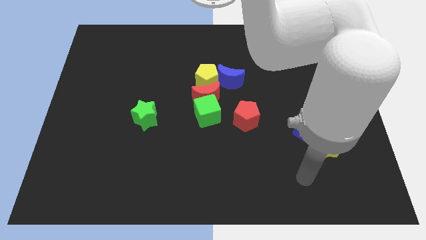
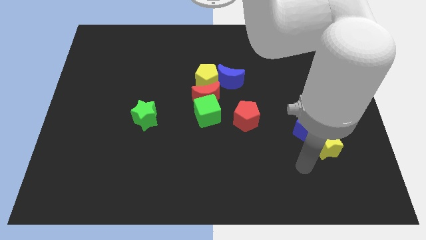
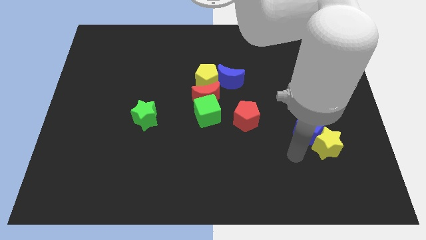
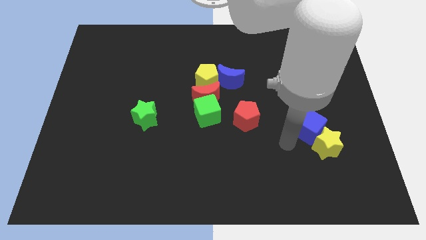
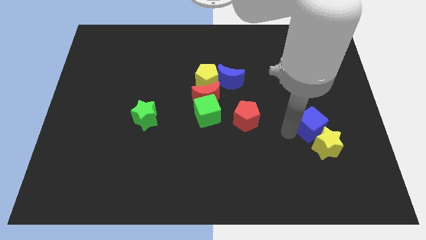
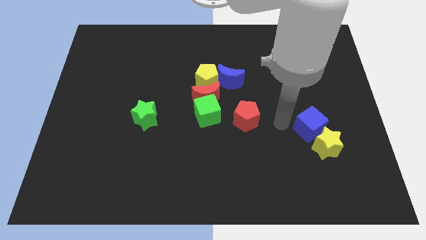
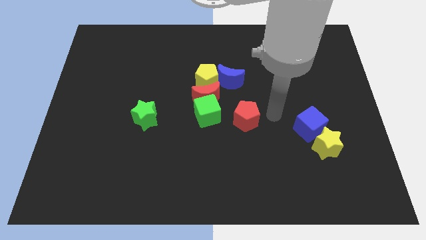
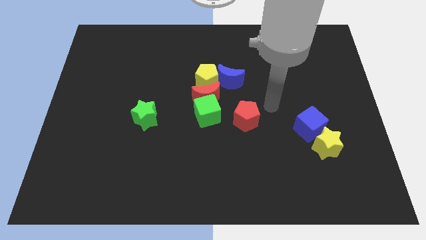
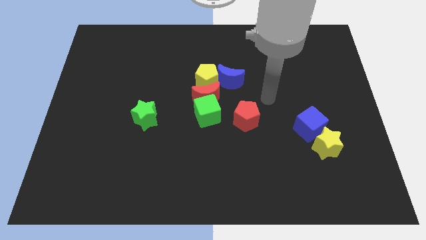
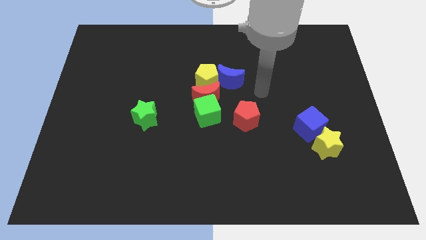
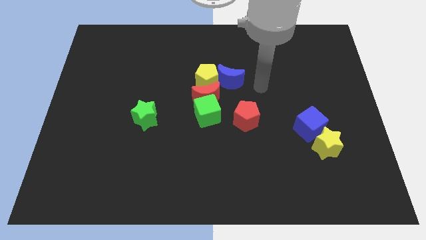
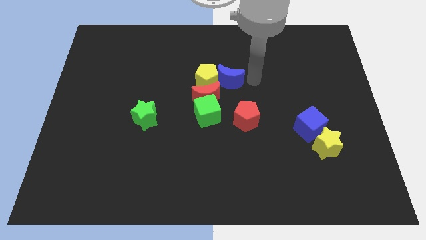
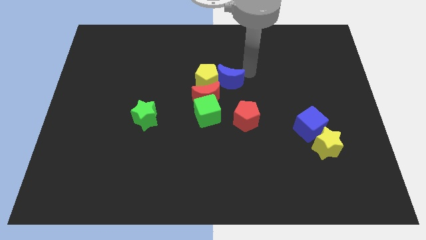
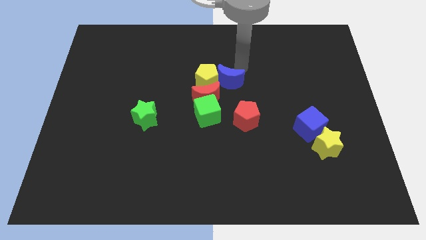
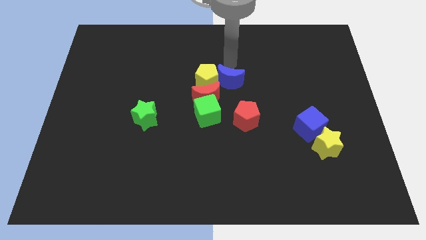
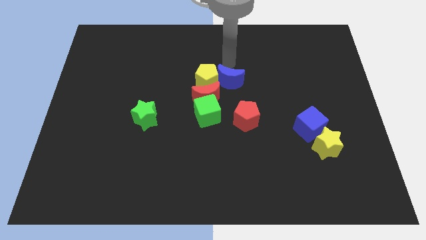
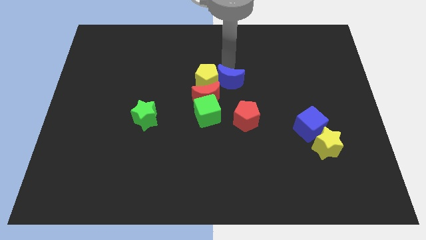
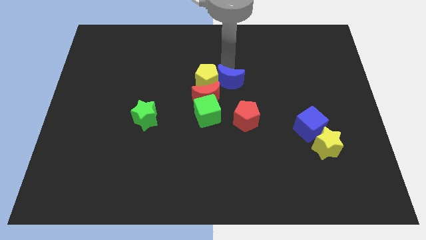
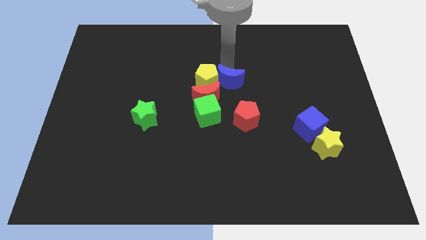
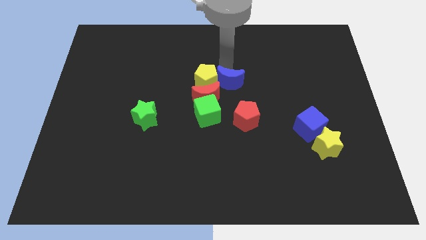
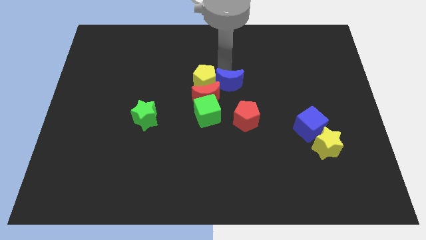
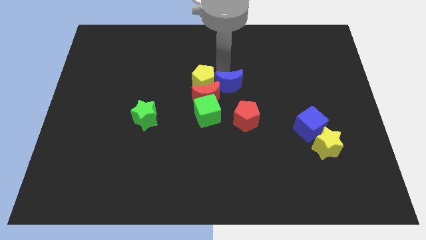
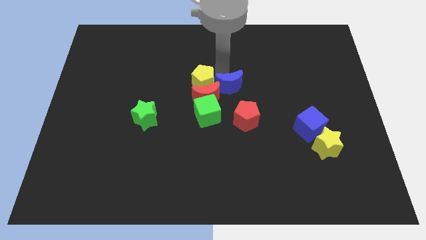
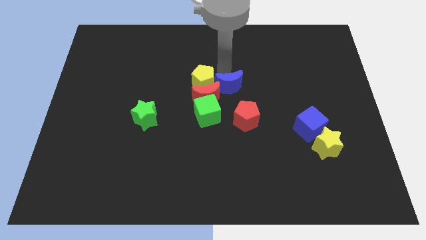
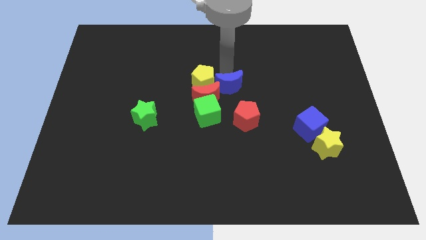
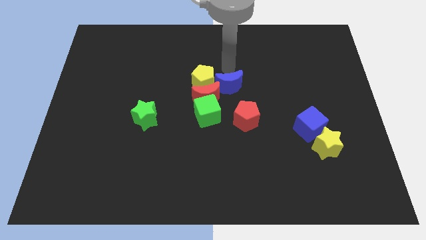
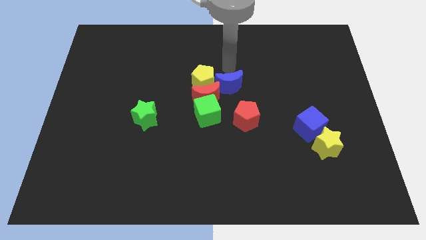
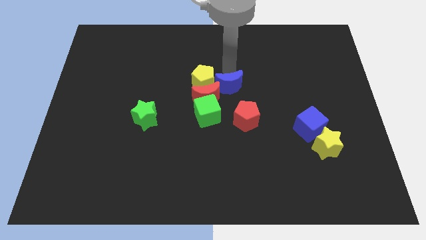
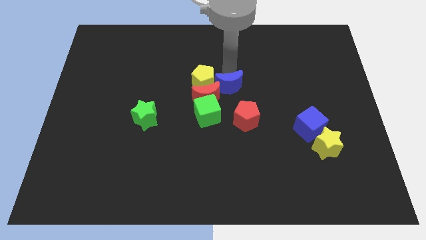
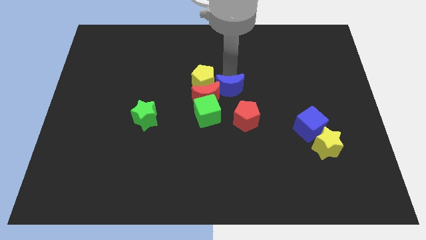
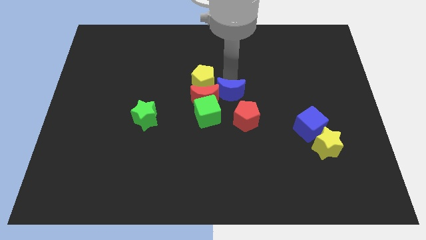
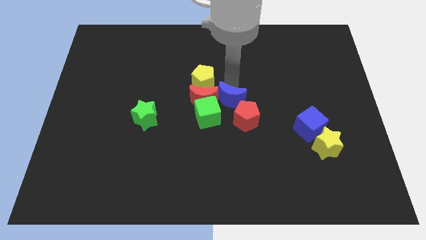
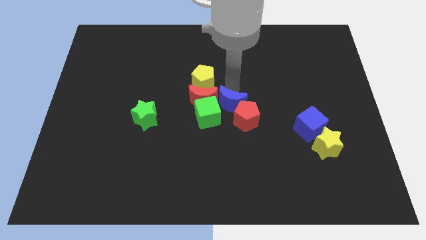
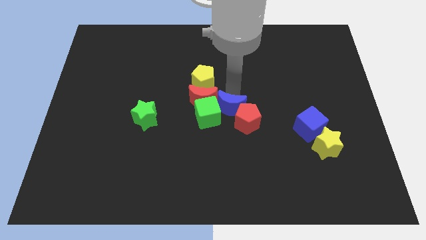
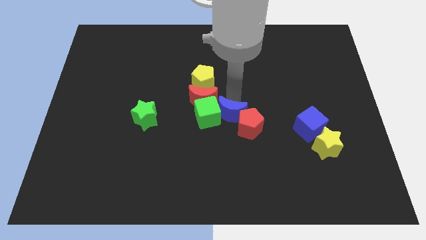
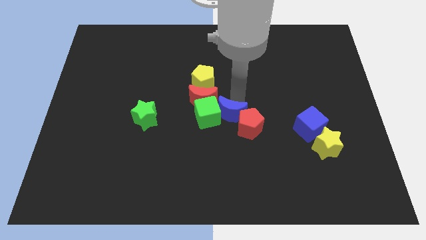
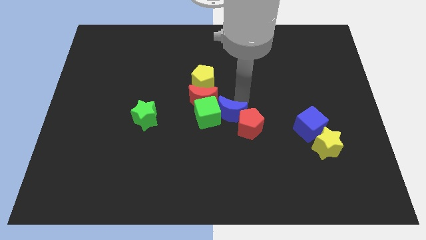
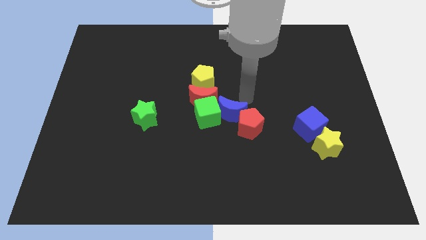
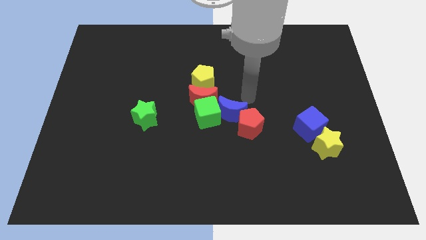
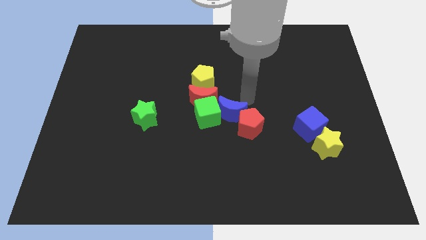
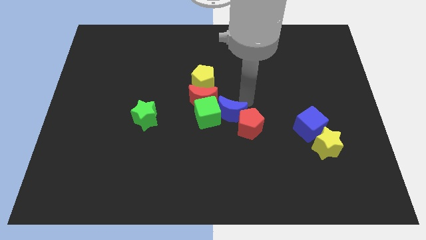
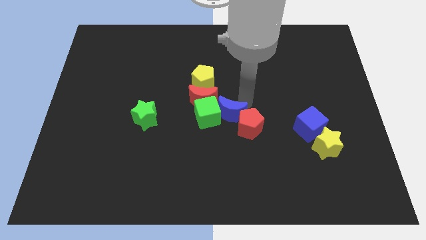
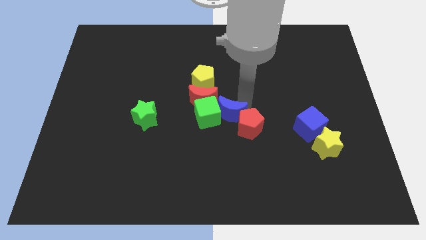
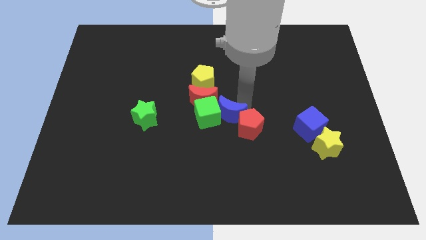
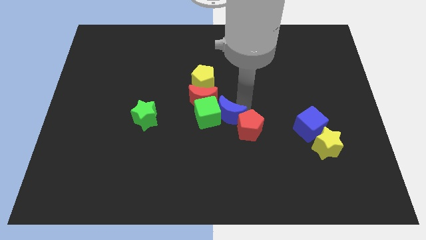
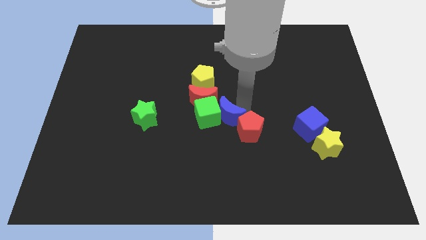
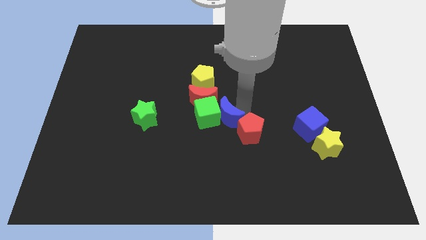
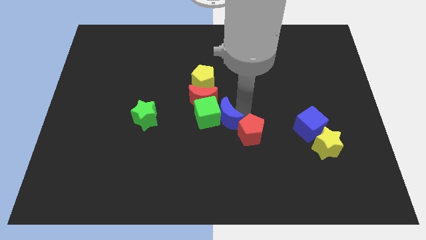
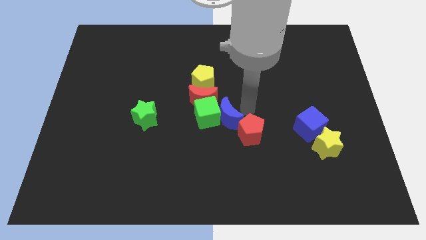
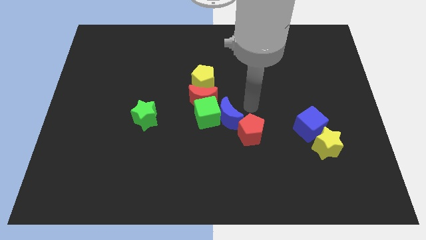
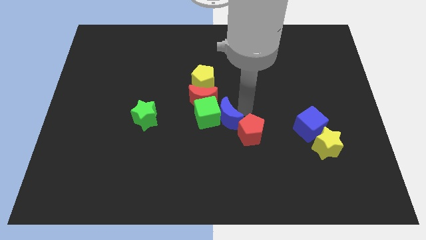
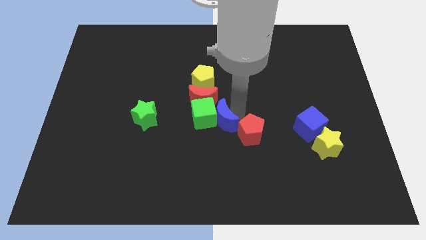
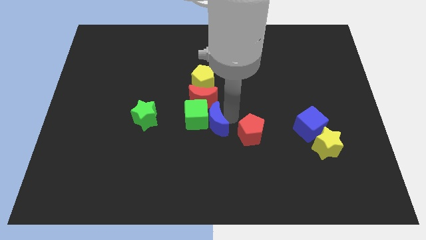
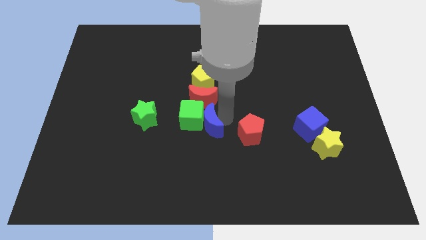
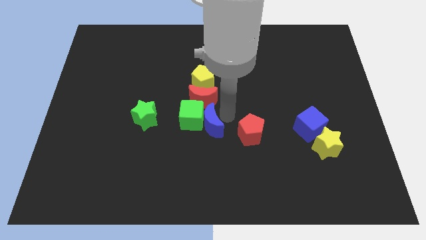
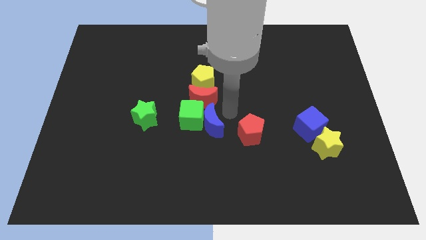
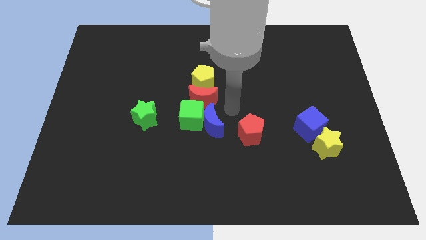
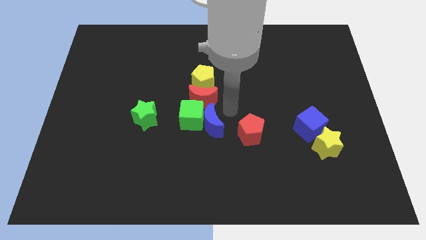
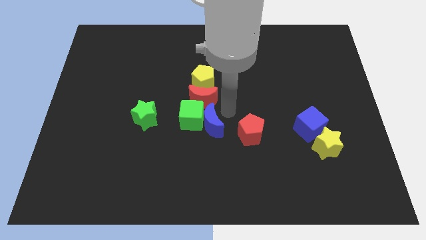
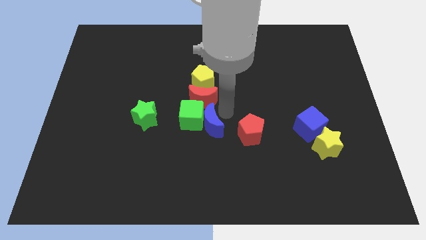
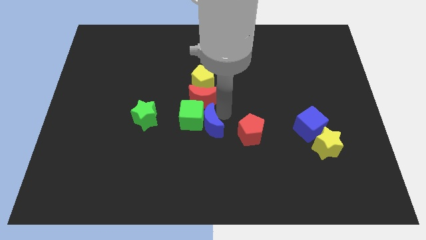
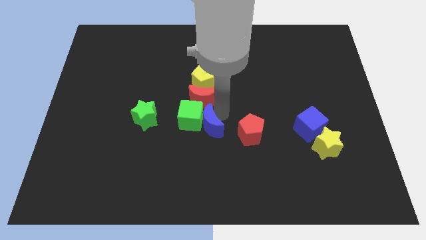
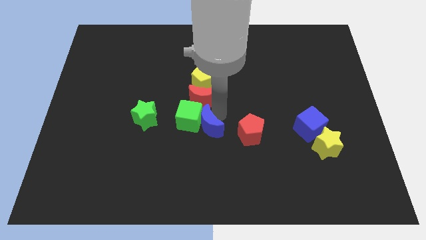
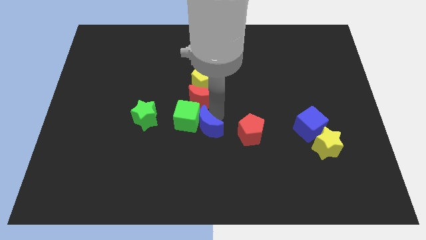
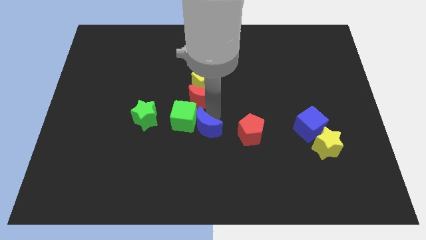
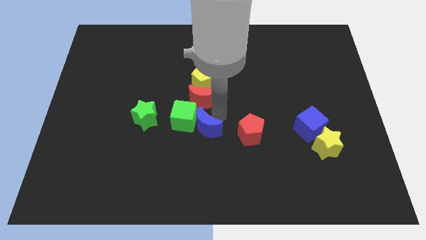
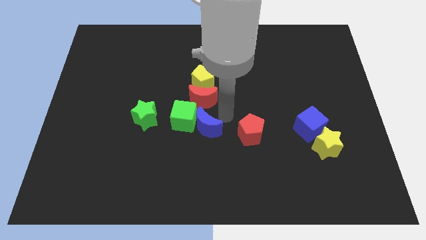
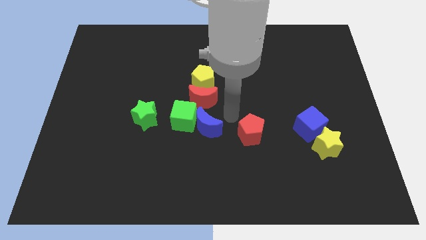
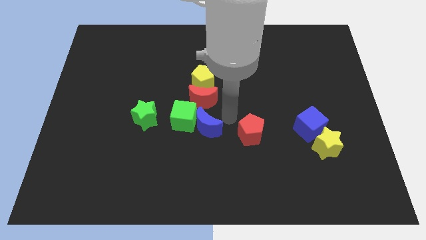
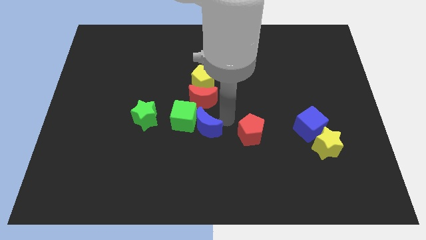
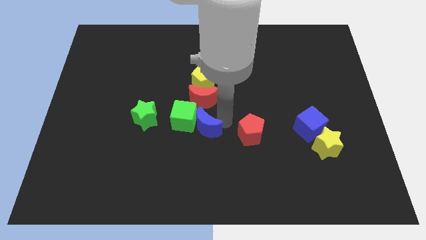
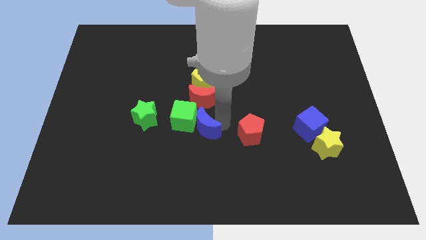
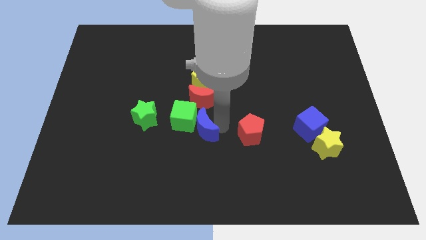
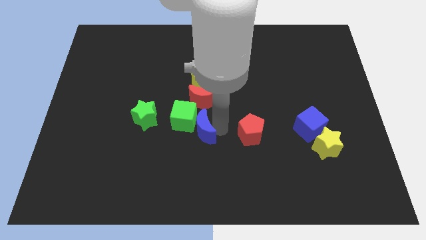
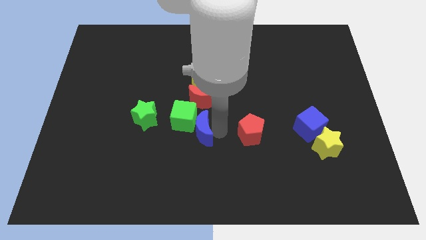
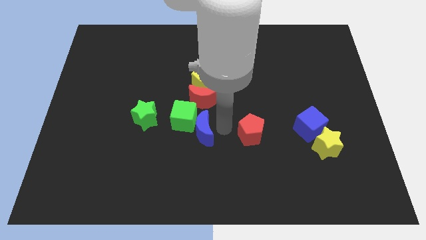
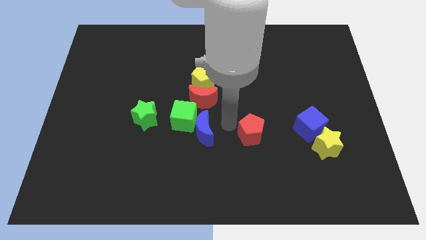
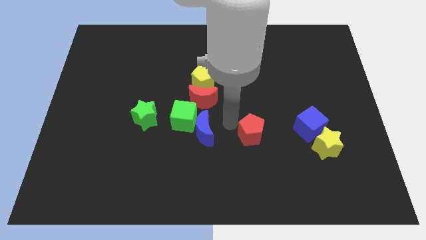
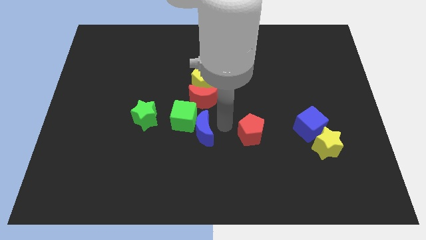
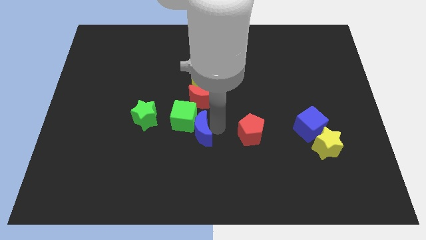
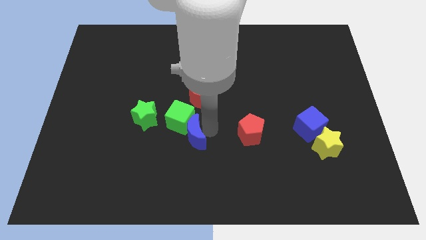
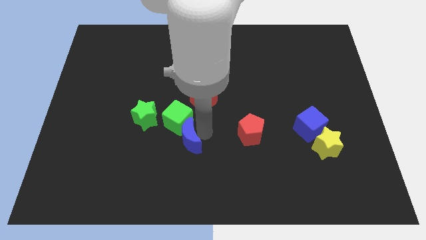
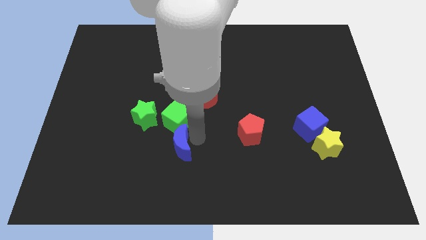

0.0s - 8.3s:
push the blue moon diagonally downwards and to the left

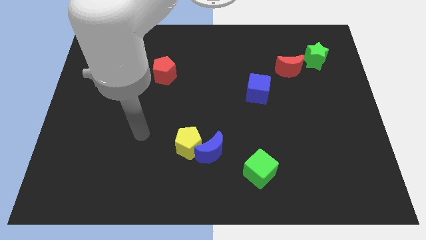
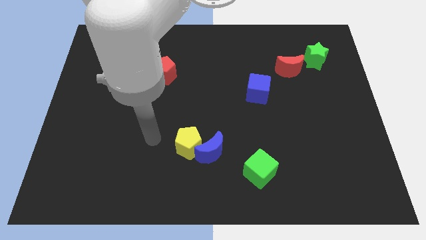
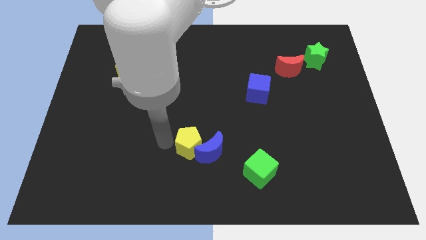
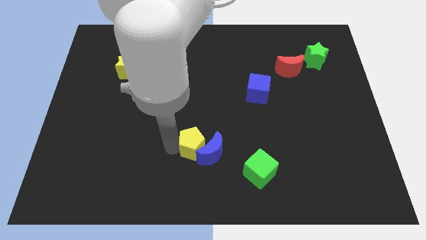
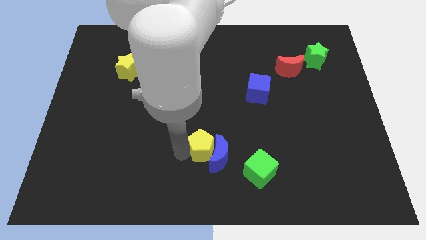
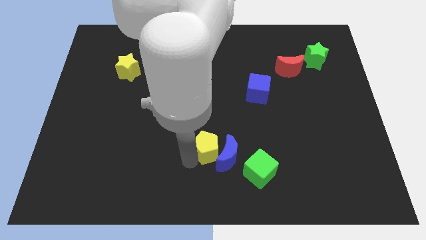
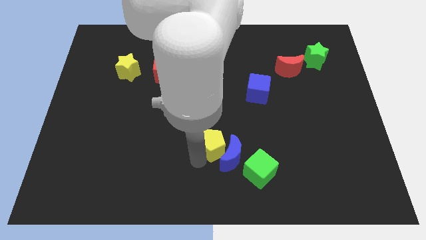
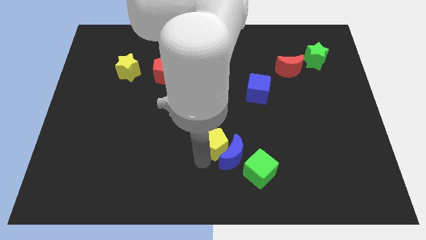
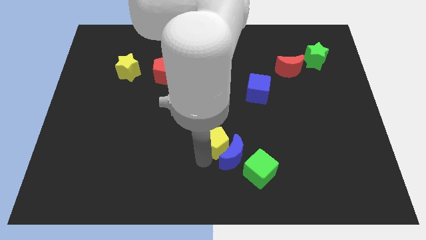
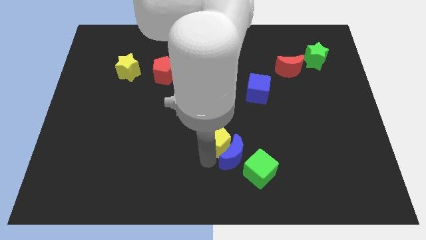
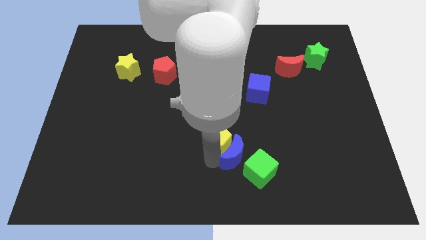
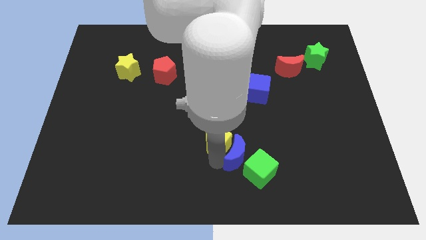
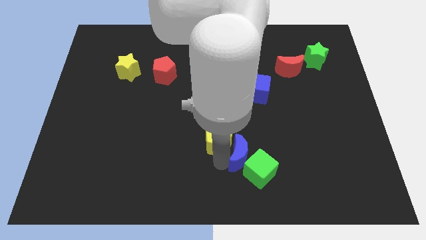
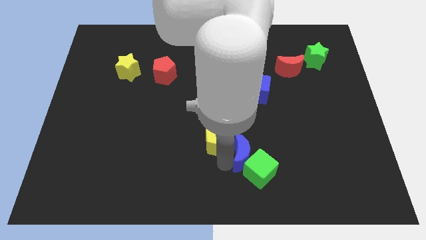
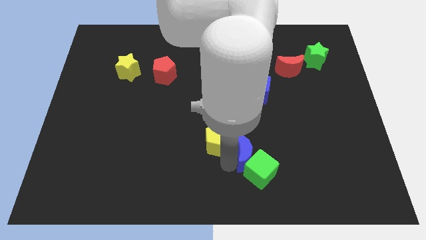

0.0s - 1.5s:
slide the blue moon to the right a little bit
